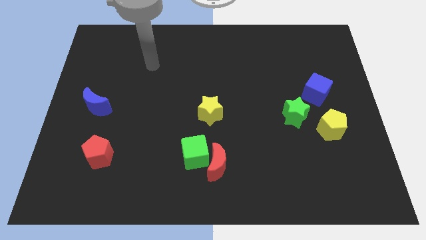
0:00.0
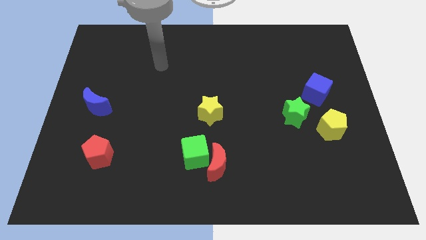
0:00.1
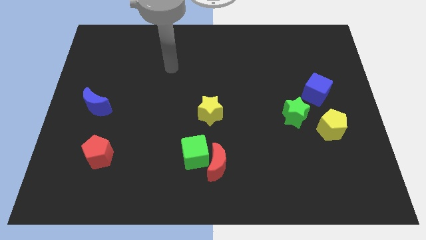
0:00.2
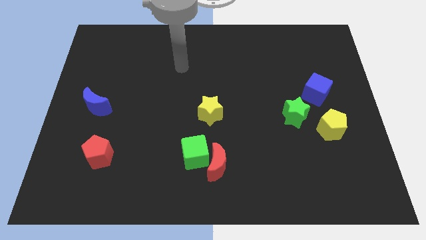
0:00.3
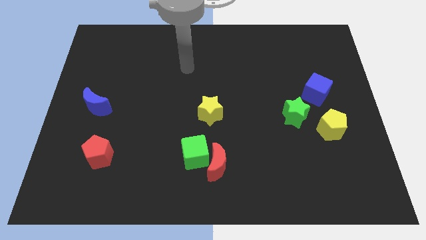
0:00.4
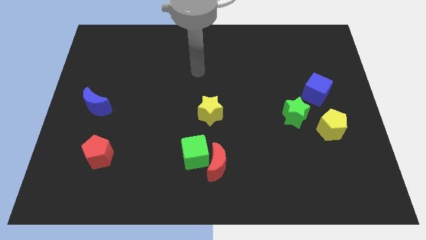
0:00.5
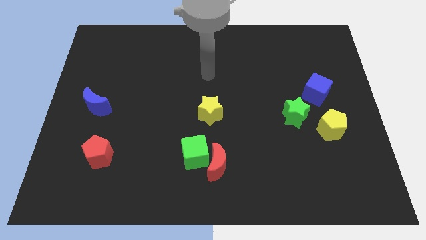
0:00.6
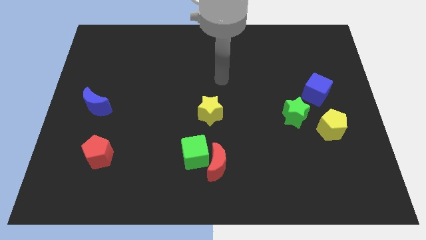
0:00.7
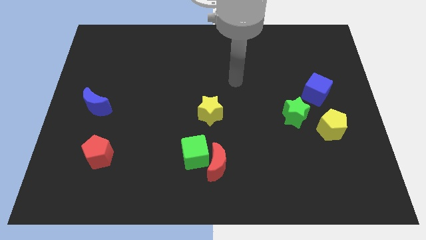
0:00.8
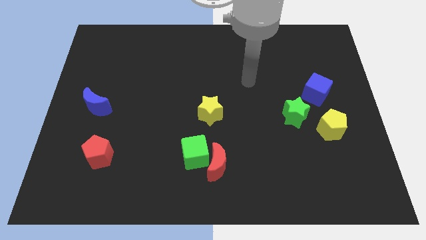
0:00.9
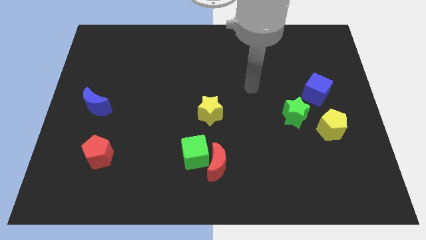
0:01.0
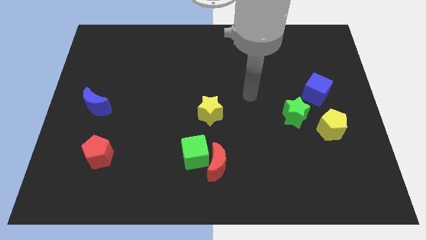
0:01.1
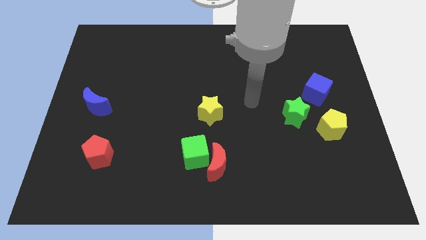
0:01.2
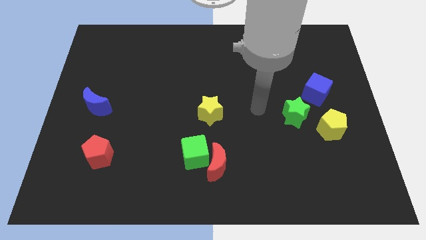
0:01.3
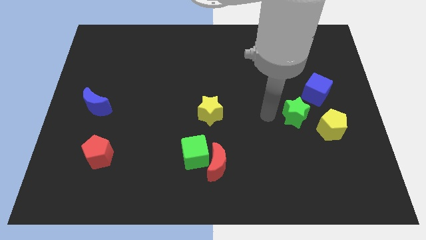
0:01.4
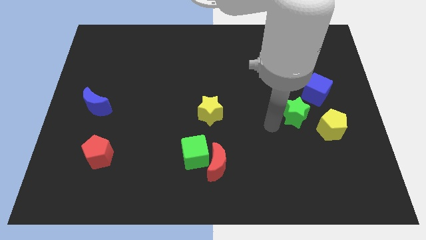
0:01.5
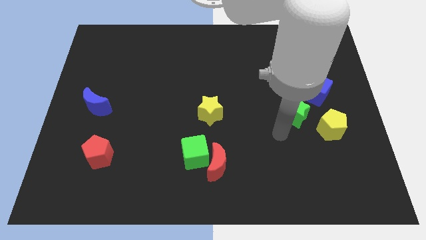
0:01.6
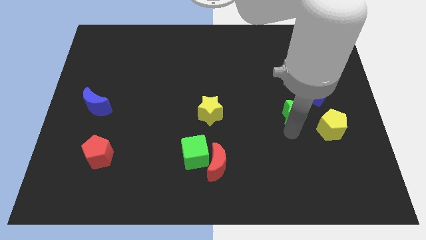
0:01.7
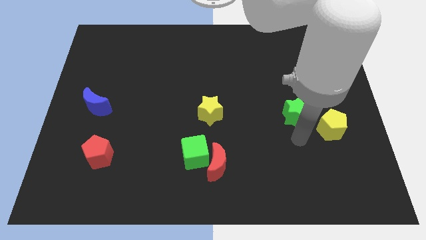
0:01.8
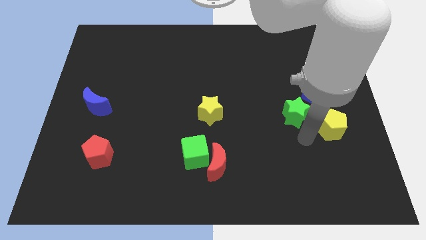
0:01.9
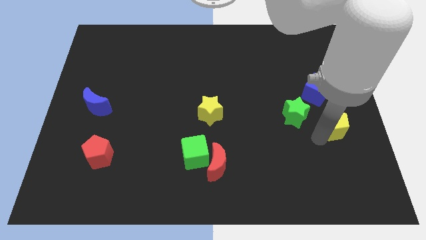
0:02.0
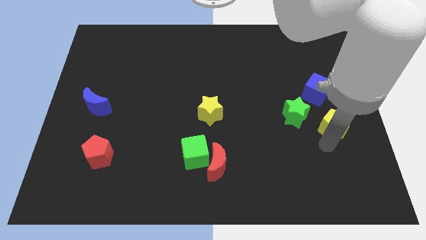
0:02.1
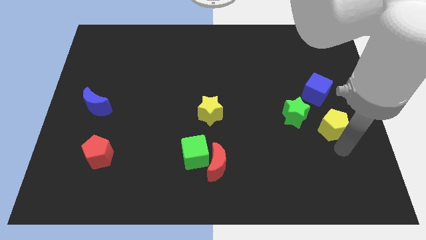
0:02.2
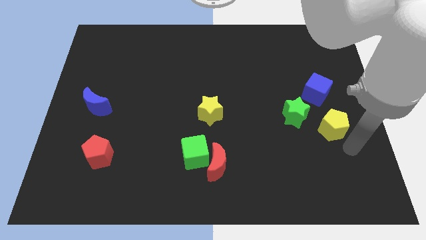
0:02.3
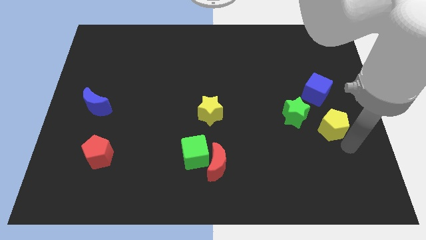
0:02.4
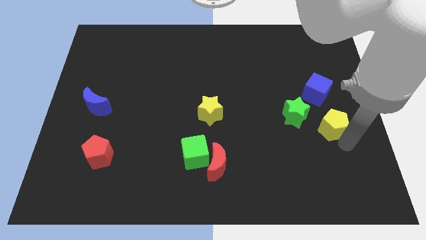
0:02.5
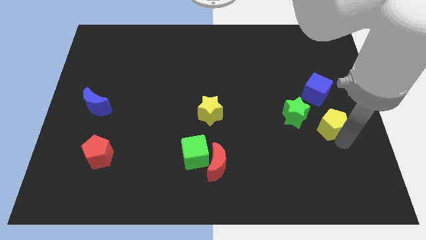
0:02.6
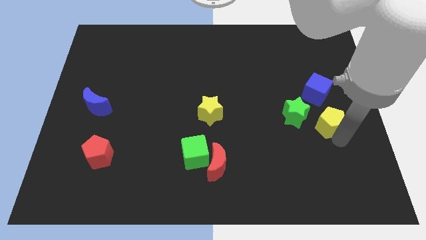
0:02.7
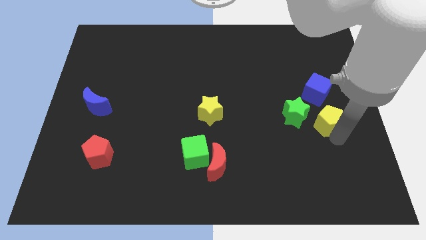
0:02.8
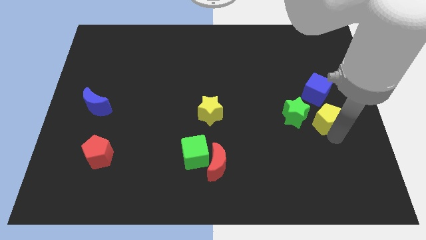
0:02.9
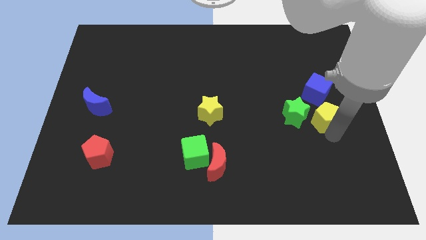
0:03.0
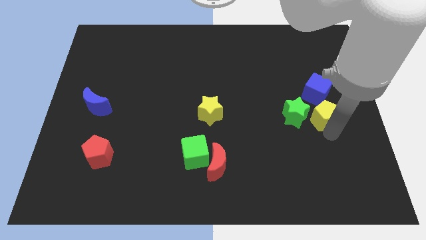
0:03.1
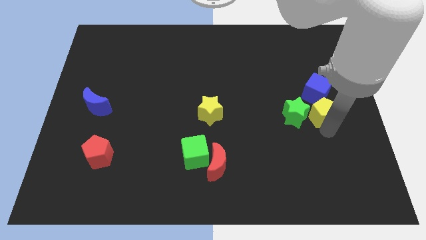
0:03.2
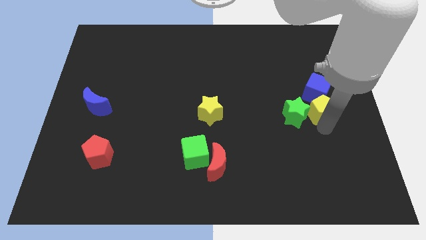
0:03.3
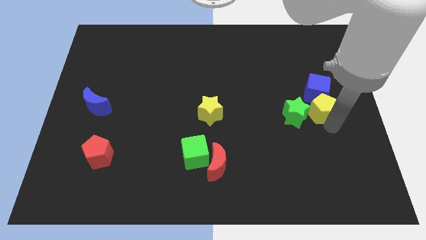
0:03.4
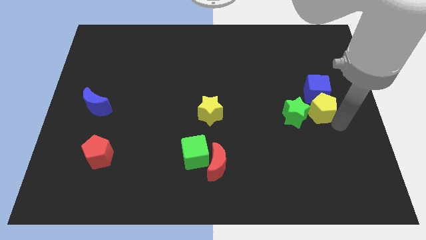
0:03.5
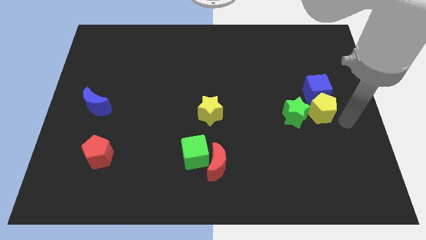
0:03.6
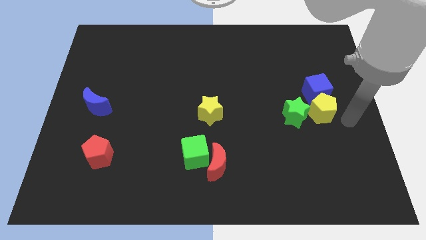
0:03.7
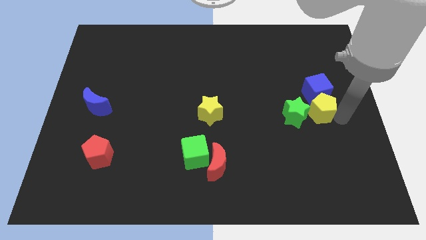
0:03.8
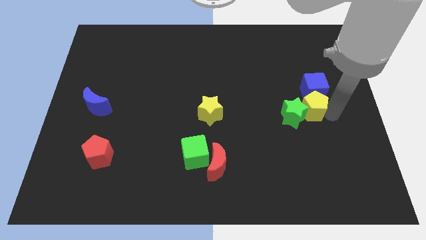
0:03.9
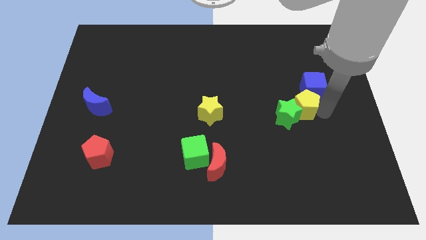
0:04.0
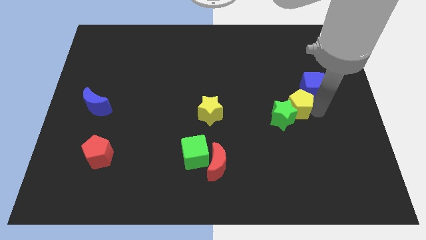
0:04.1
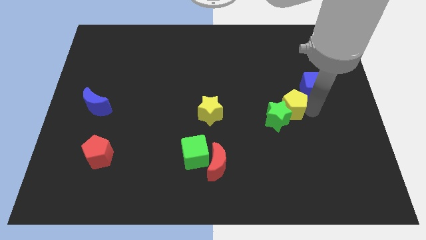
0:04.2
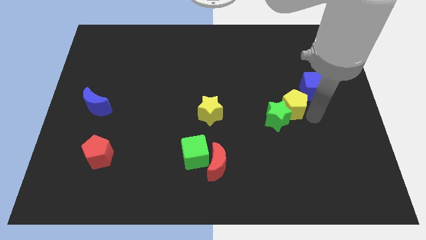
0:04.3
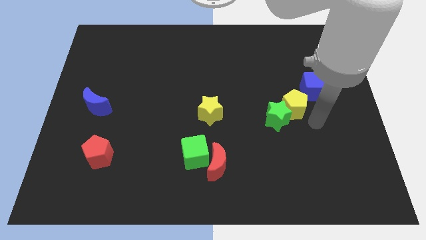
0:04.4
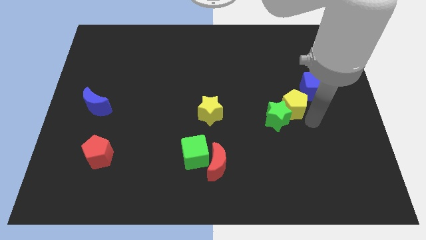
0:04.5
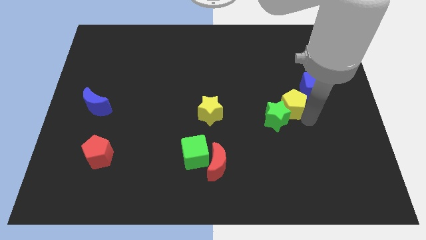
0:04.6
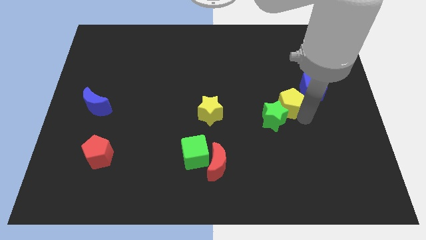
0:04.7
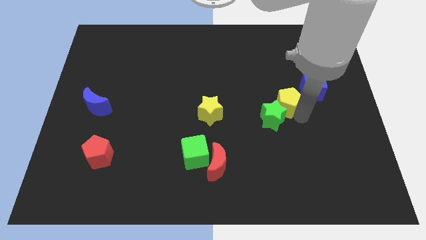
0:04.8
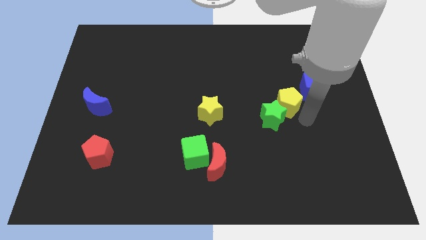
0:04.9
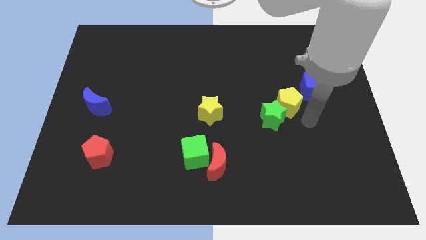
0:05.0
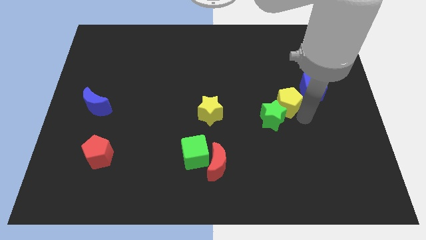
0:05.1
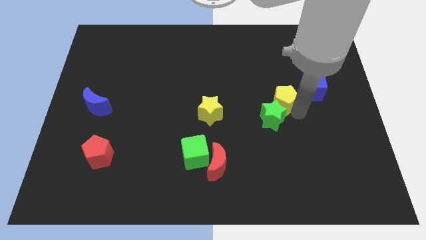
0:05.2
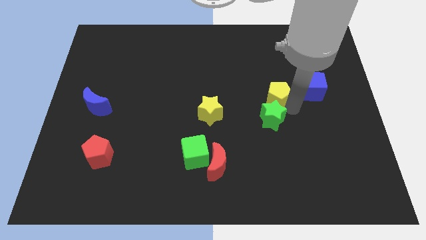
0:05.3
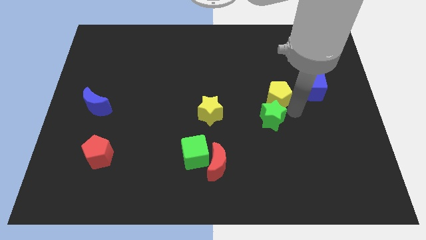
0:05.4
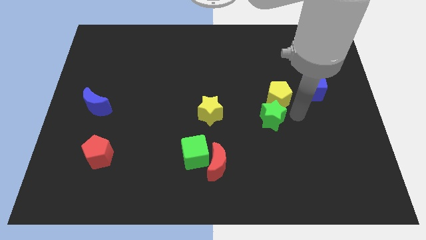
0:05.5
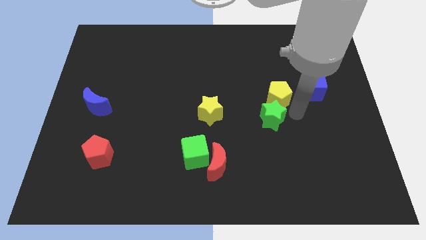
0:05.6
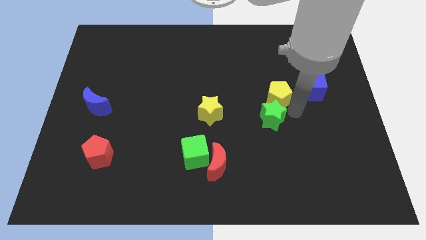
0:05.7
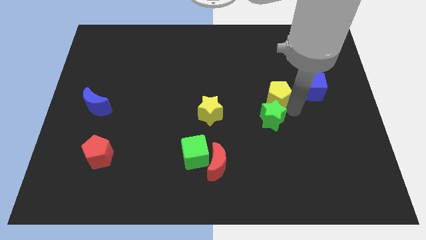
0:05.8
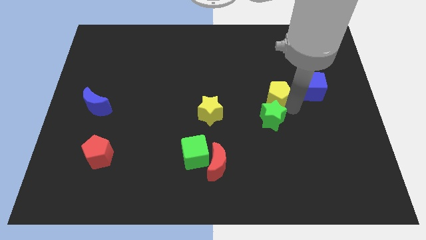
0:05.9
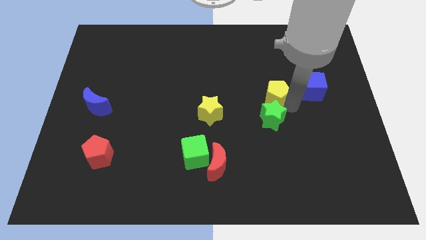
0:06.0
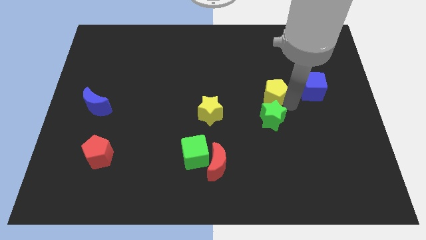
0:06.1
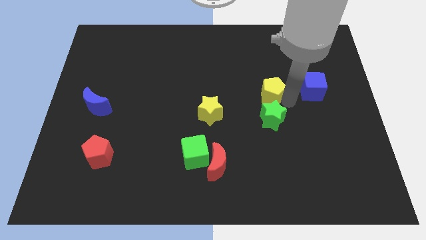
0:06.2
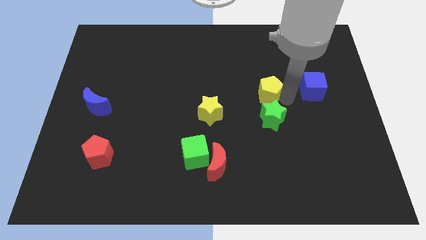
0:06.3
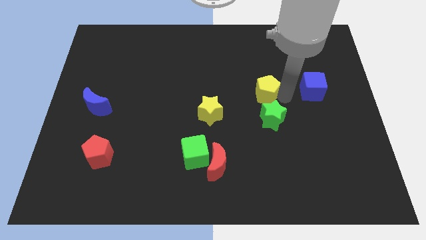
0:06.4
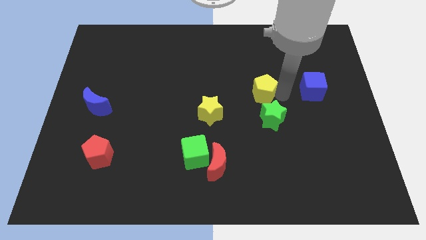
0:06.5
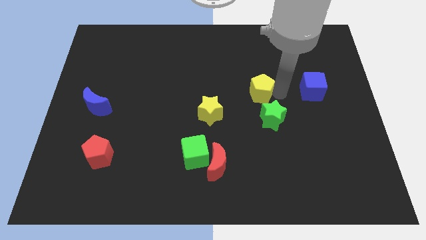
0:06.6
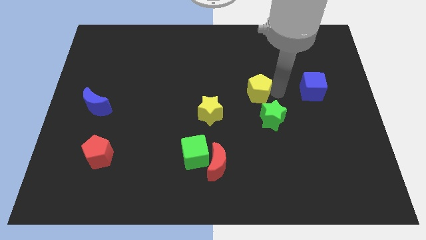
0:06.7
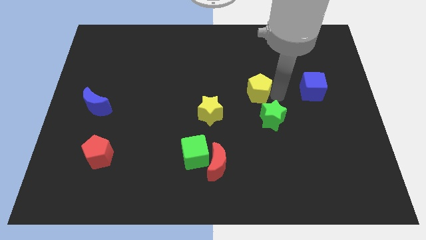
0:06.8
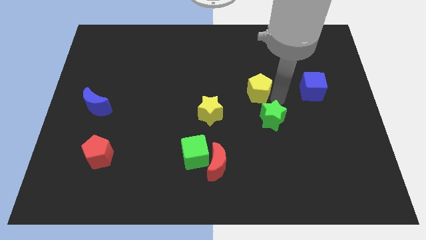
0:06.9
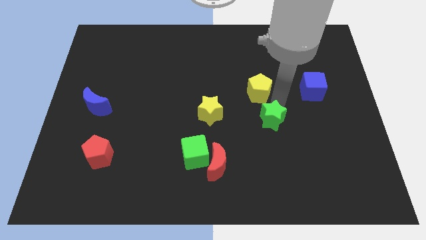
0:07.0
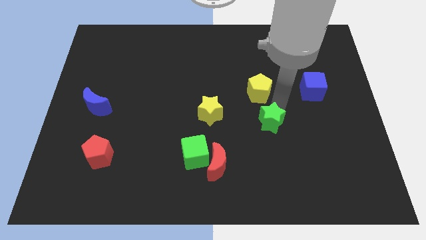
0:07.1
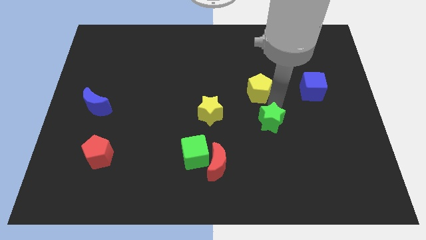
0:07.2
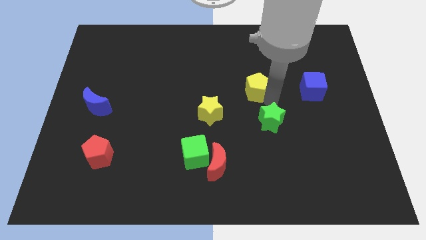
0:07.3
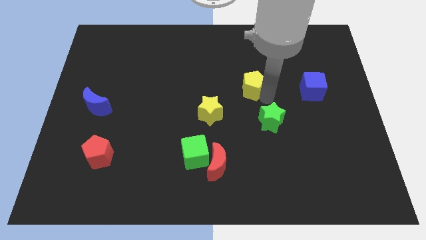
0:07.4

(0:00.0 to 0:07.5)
move the yellow pentagon upwards and to the left diagonally

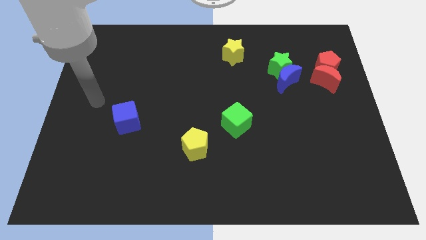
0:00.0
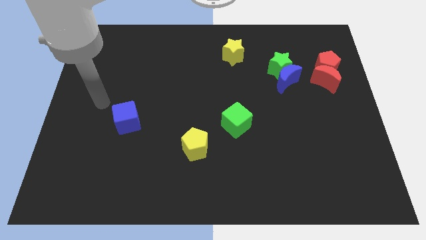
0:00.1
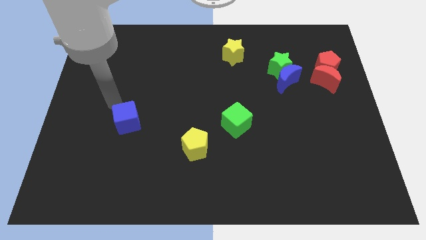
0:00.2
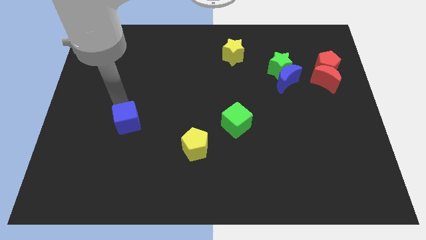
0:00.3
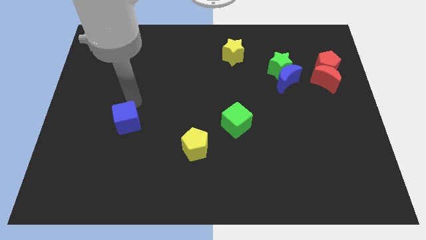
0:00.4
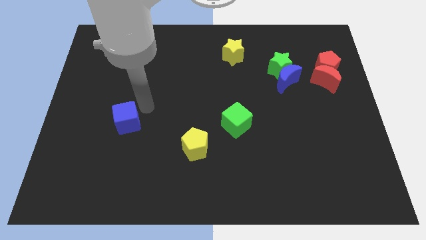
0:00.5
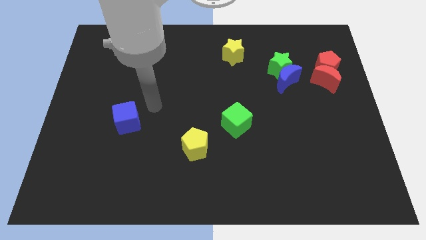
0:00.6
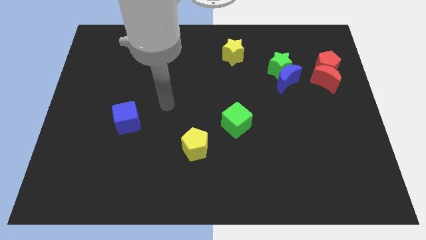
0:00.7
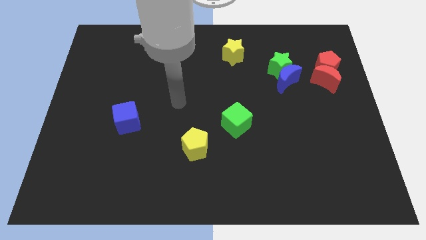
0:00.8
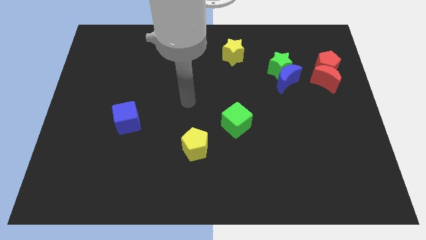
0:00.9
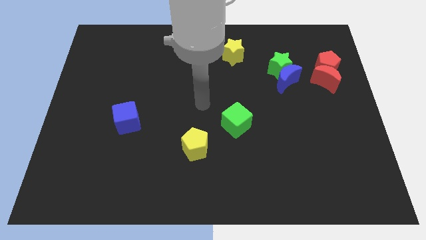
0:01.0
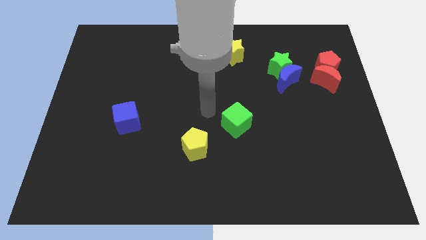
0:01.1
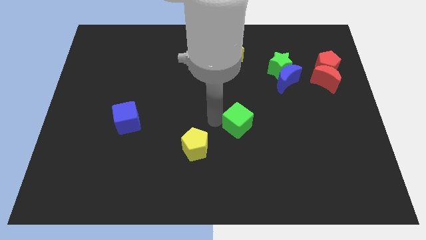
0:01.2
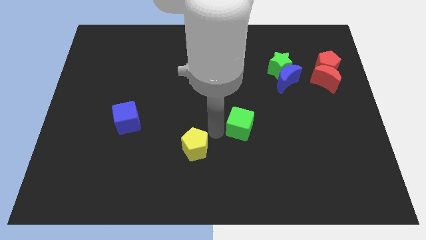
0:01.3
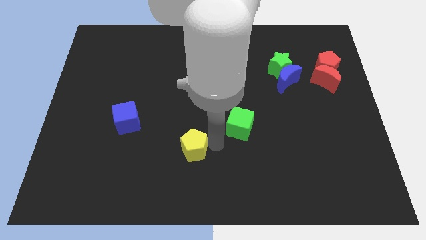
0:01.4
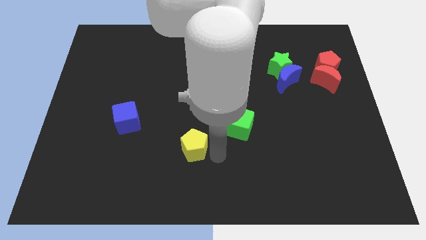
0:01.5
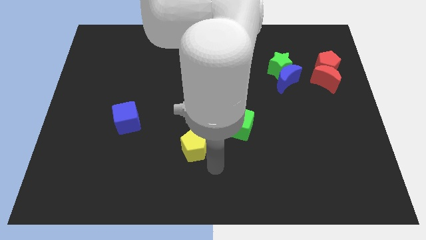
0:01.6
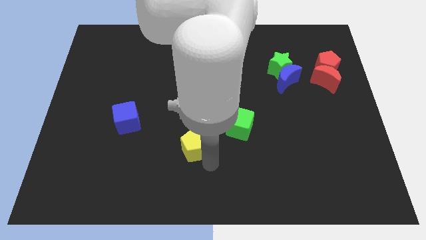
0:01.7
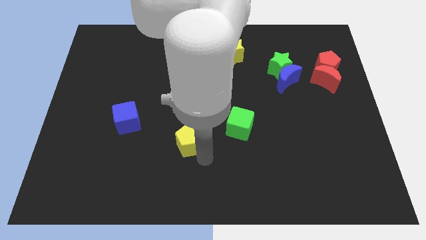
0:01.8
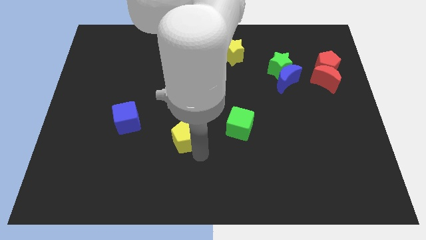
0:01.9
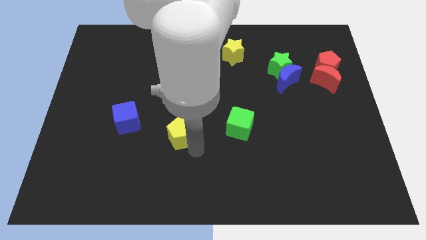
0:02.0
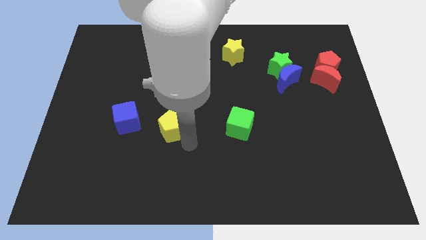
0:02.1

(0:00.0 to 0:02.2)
push the yellow pentagon somewhat diagonally up and to the left
